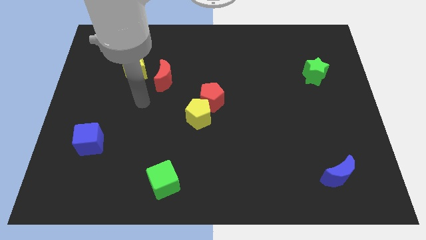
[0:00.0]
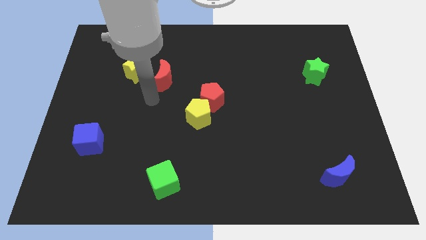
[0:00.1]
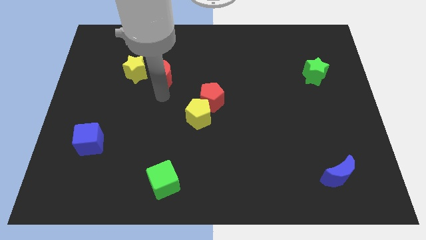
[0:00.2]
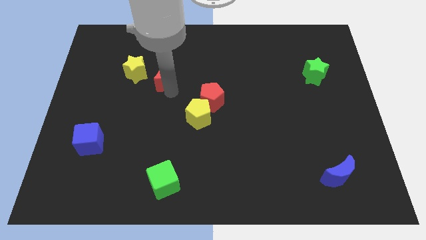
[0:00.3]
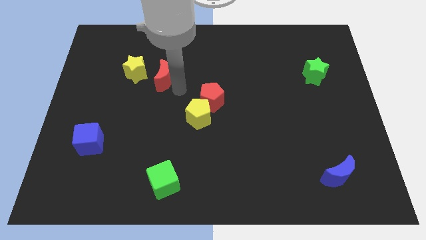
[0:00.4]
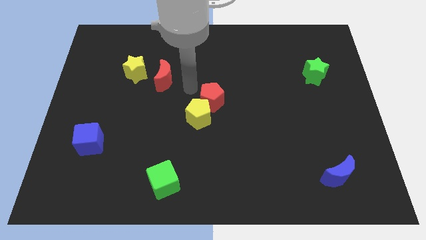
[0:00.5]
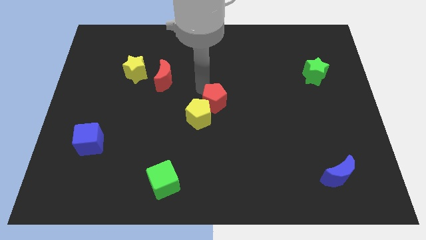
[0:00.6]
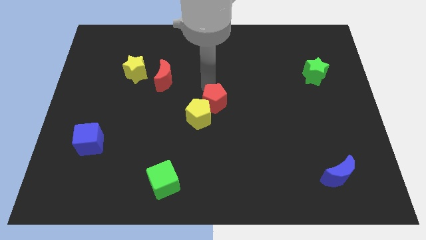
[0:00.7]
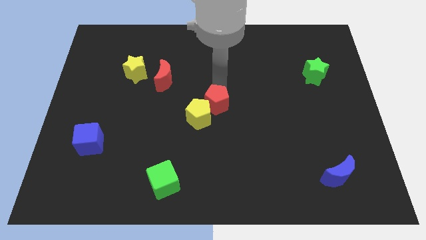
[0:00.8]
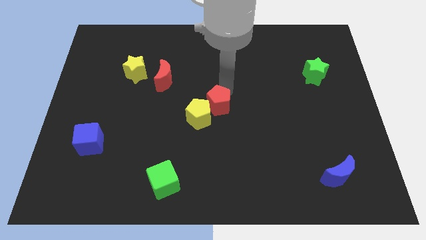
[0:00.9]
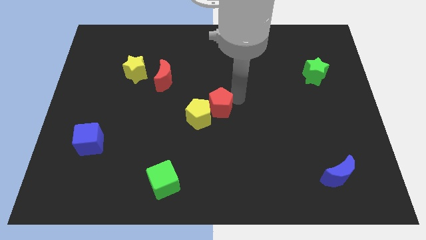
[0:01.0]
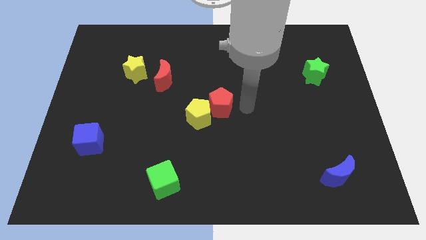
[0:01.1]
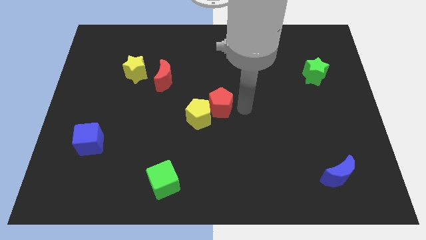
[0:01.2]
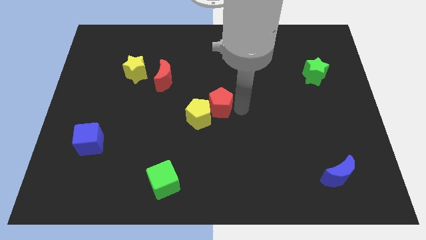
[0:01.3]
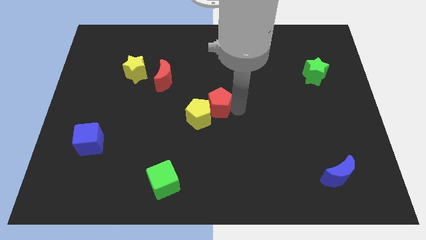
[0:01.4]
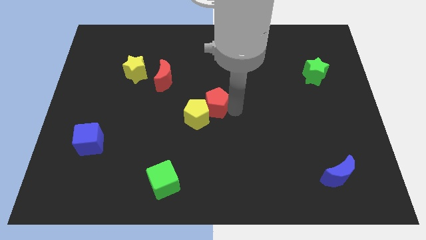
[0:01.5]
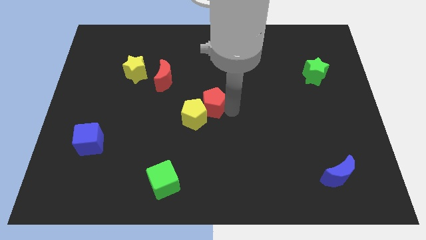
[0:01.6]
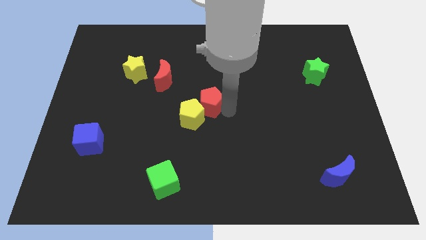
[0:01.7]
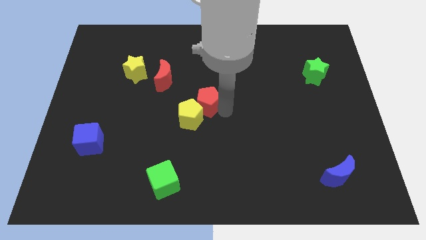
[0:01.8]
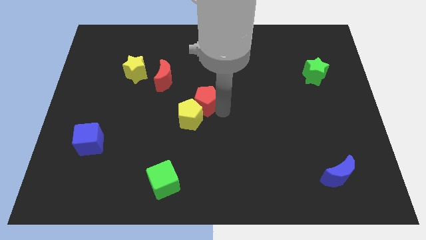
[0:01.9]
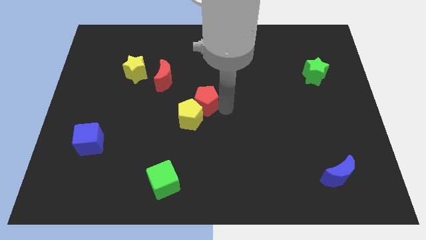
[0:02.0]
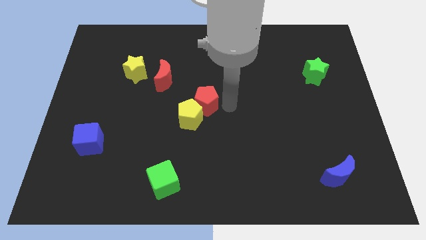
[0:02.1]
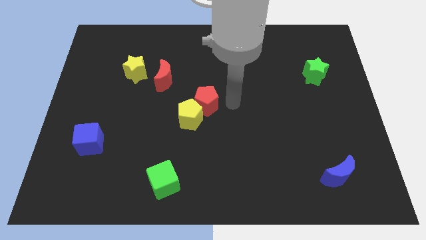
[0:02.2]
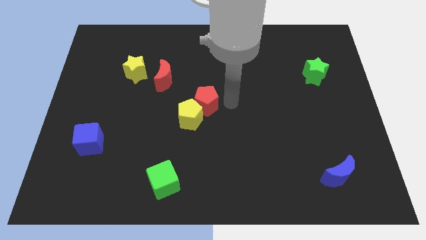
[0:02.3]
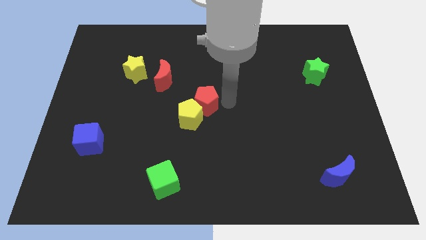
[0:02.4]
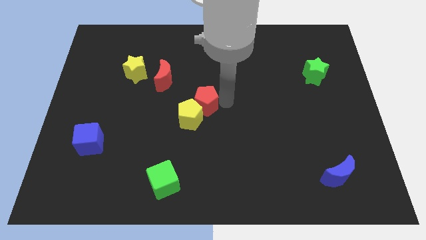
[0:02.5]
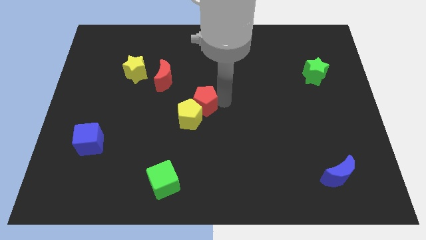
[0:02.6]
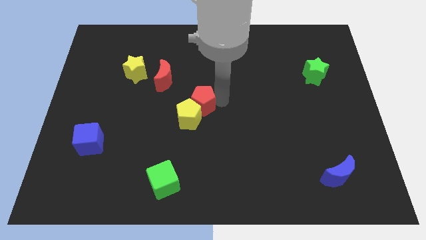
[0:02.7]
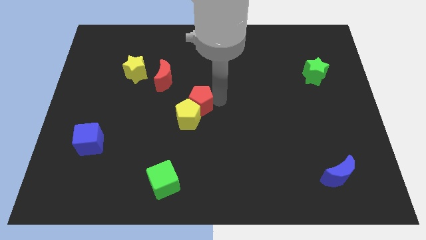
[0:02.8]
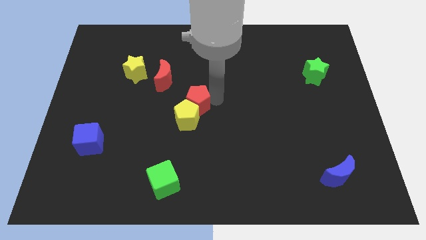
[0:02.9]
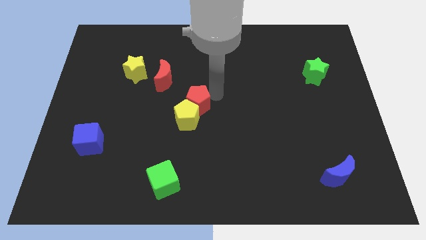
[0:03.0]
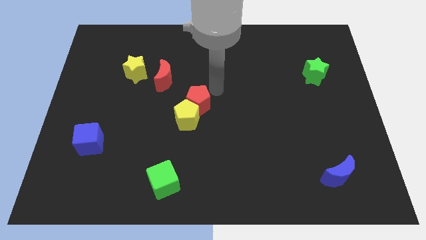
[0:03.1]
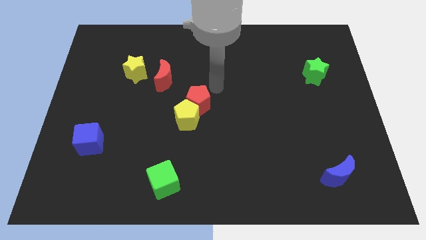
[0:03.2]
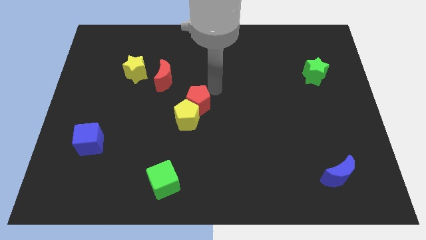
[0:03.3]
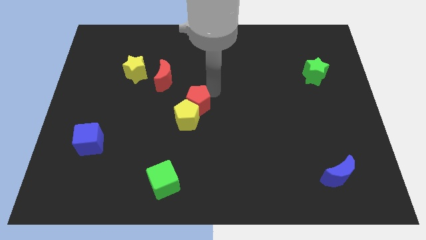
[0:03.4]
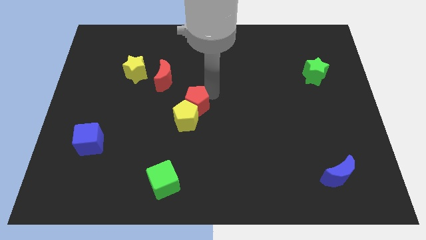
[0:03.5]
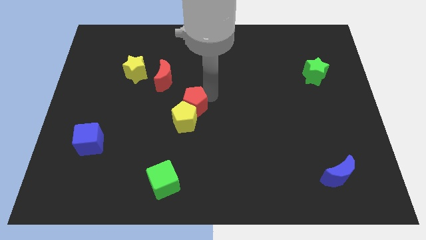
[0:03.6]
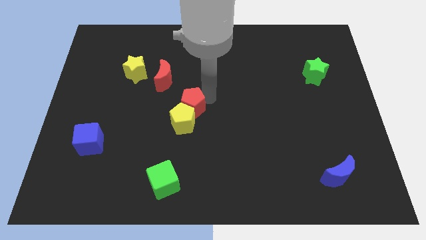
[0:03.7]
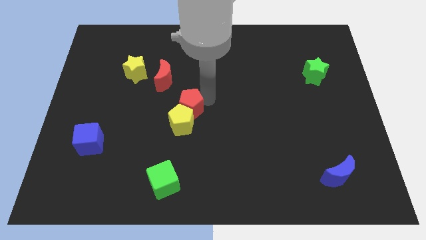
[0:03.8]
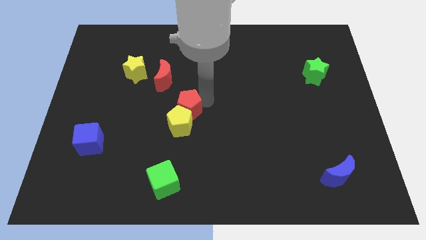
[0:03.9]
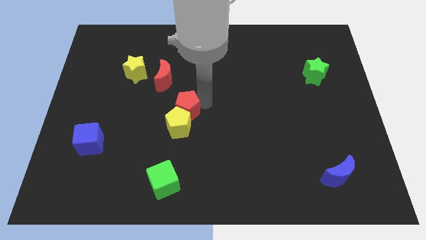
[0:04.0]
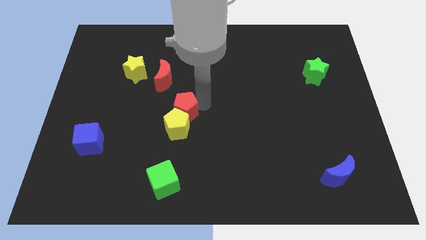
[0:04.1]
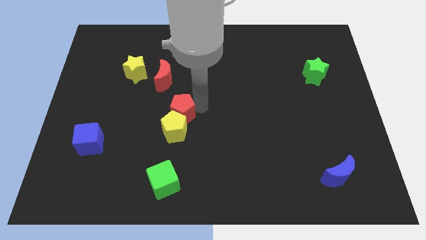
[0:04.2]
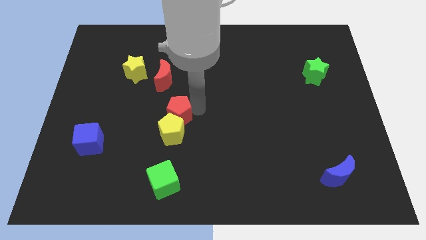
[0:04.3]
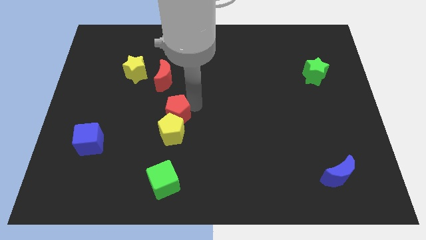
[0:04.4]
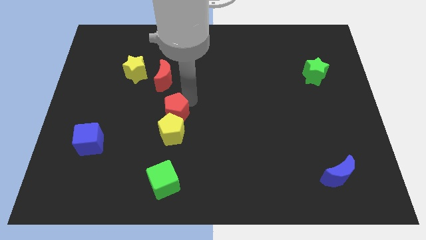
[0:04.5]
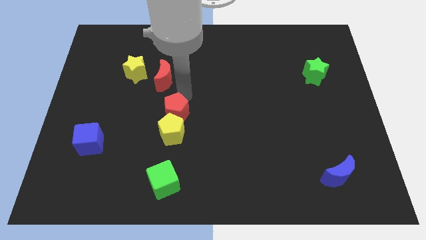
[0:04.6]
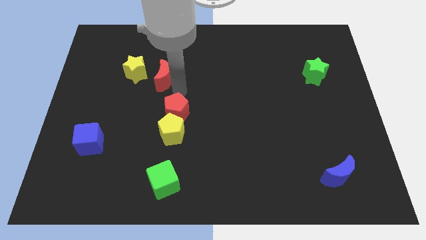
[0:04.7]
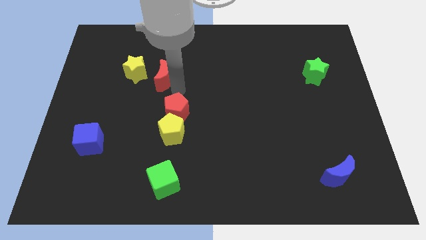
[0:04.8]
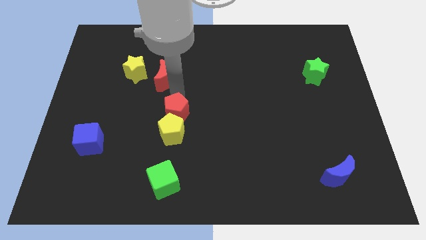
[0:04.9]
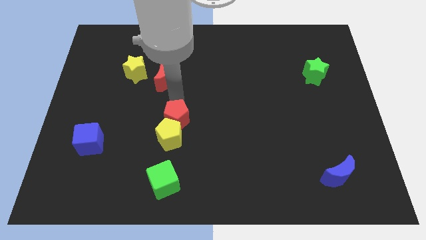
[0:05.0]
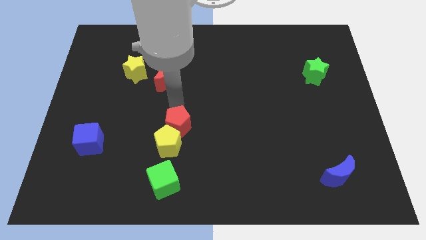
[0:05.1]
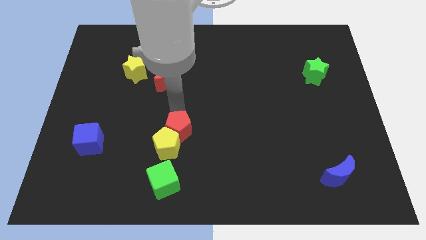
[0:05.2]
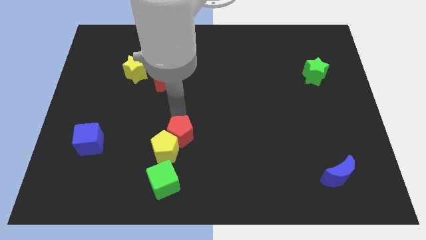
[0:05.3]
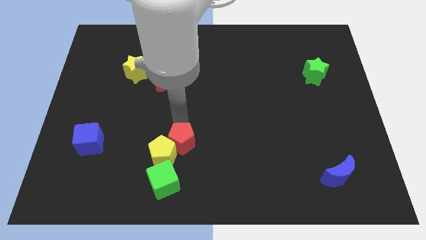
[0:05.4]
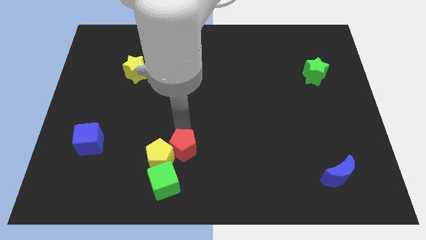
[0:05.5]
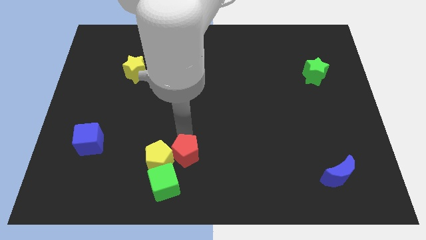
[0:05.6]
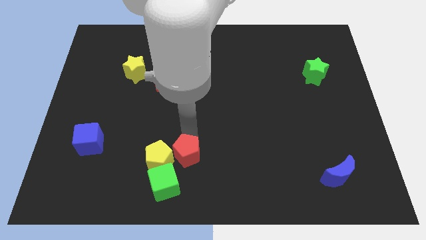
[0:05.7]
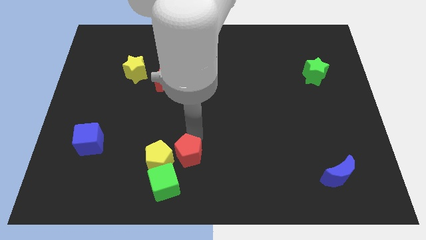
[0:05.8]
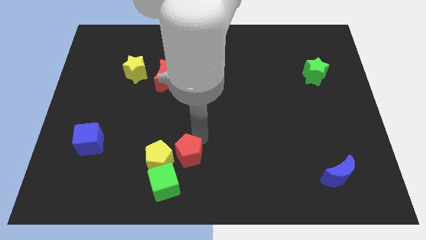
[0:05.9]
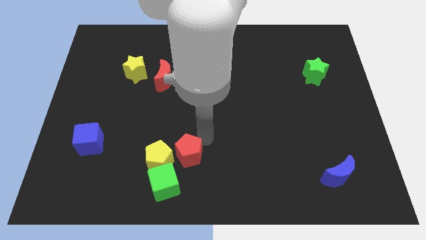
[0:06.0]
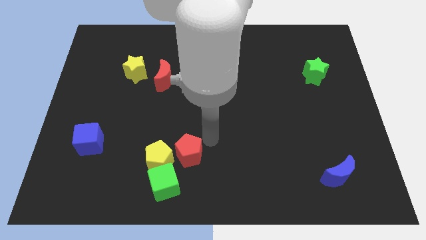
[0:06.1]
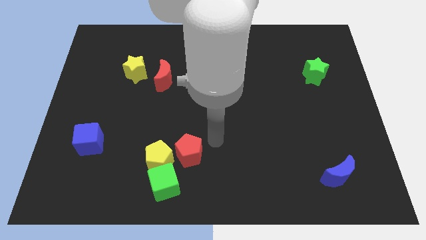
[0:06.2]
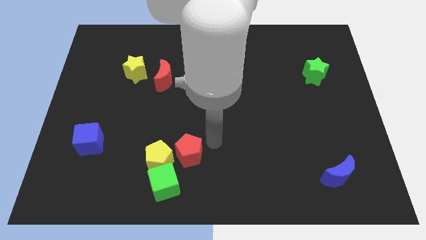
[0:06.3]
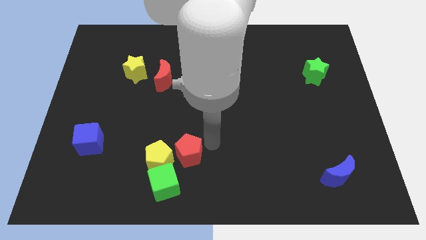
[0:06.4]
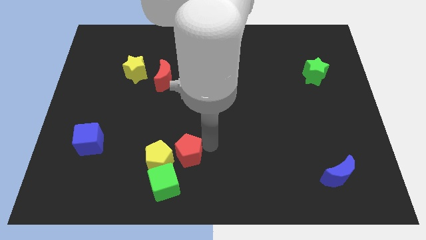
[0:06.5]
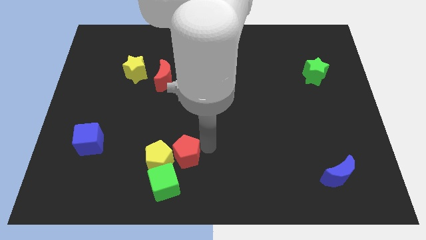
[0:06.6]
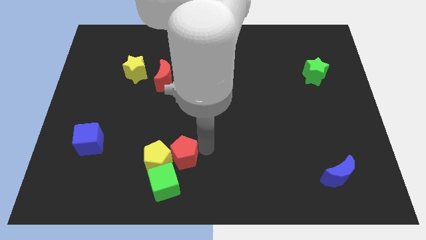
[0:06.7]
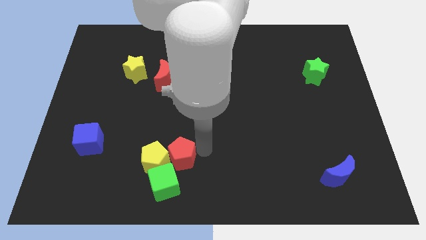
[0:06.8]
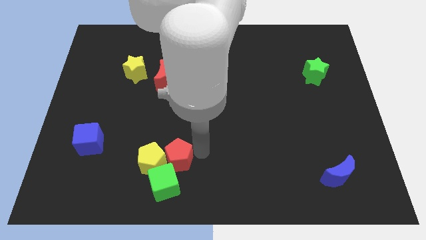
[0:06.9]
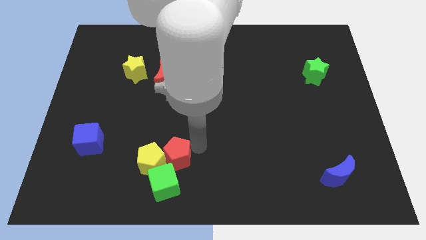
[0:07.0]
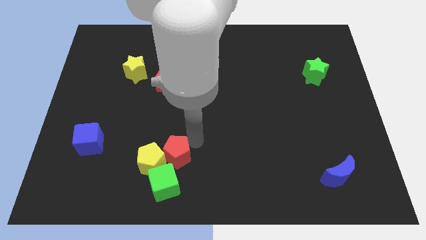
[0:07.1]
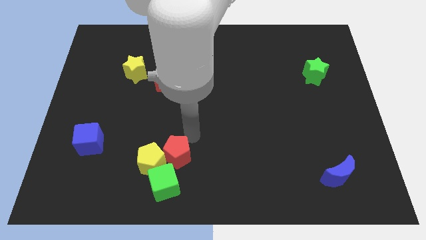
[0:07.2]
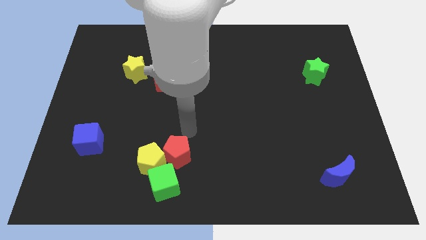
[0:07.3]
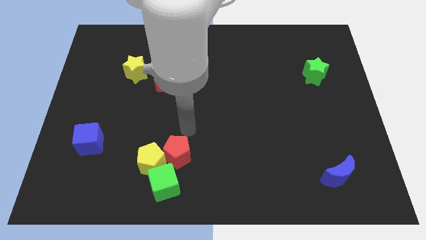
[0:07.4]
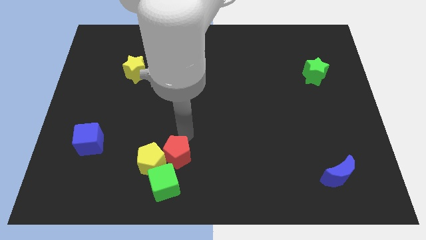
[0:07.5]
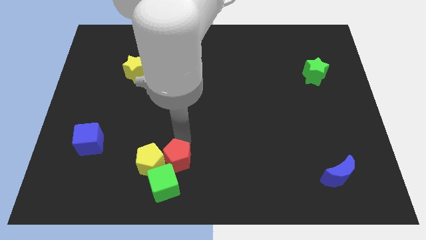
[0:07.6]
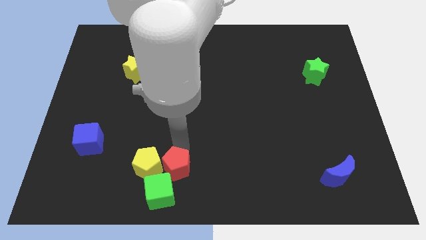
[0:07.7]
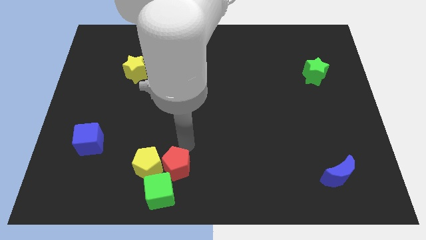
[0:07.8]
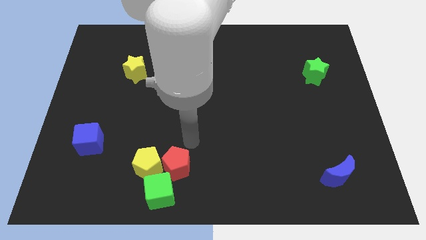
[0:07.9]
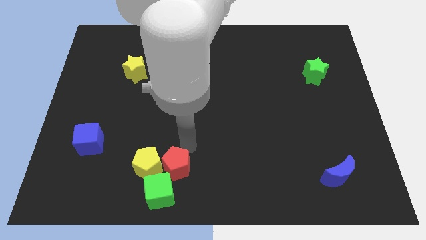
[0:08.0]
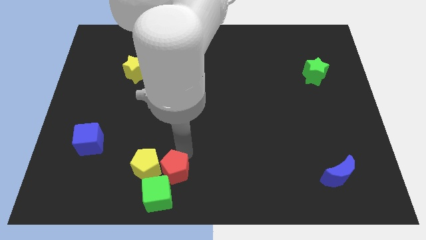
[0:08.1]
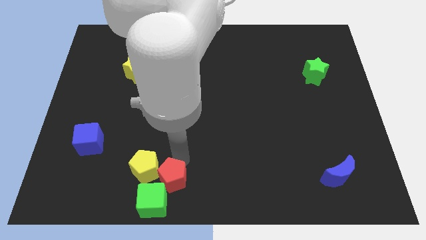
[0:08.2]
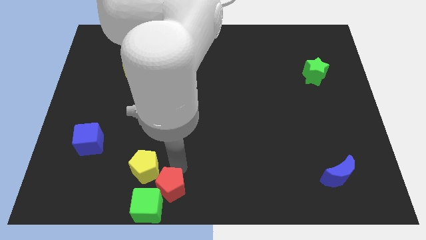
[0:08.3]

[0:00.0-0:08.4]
push the red pentagon close to the green cube
